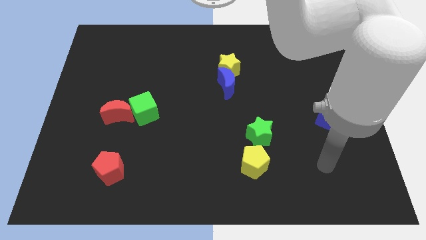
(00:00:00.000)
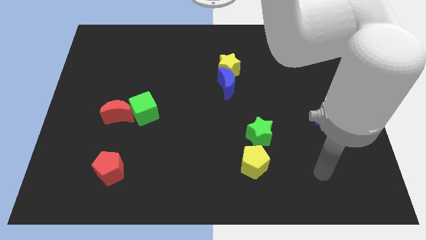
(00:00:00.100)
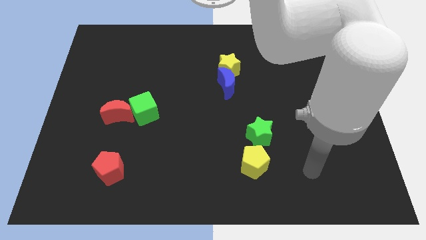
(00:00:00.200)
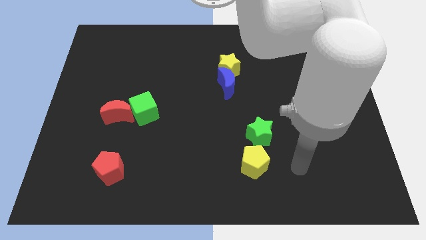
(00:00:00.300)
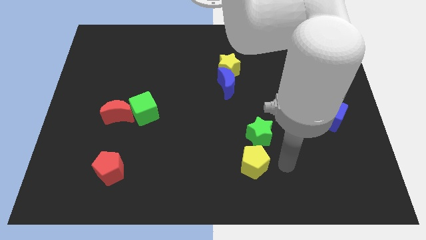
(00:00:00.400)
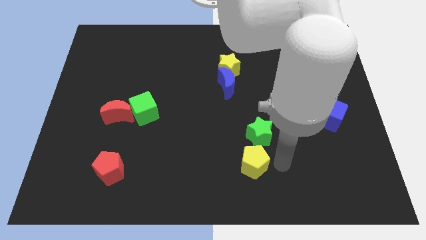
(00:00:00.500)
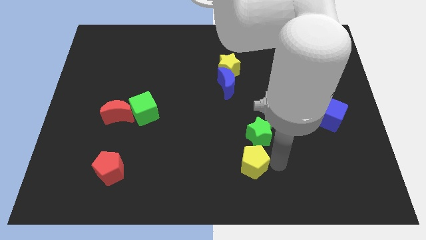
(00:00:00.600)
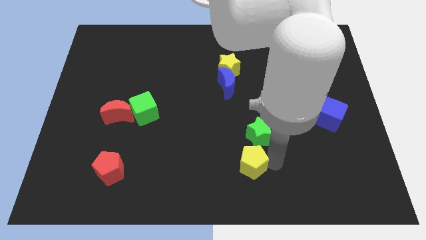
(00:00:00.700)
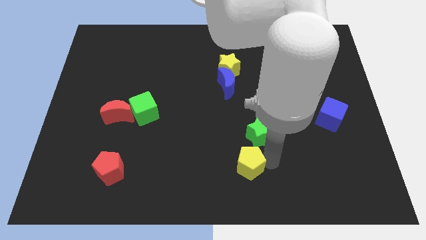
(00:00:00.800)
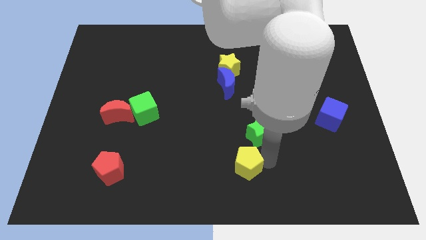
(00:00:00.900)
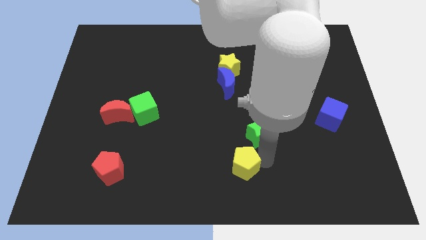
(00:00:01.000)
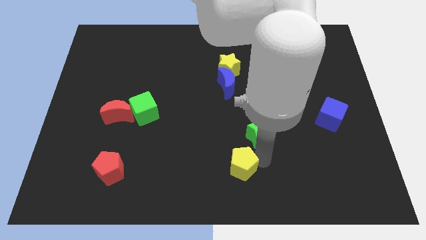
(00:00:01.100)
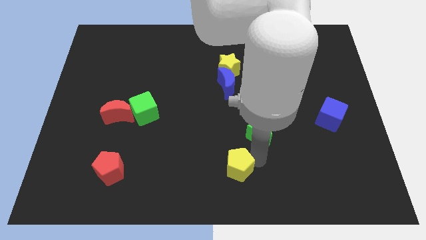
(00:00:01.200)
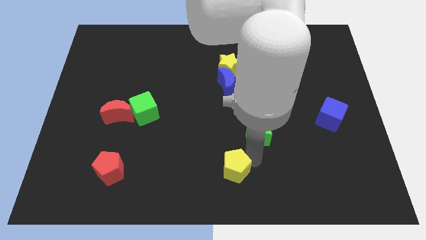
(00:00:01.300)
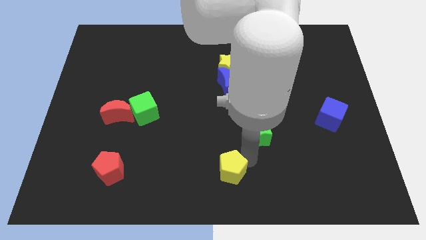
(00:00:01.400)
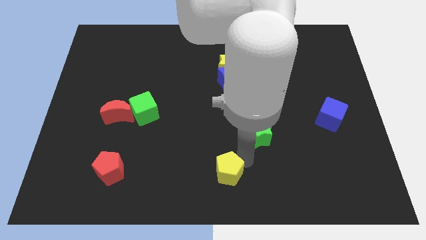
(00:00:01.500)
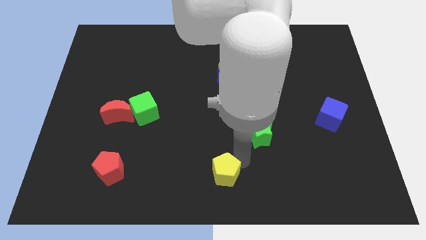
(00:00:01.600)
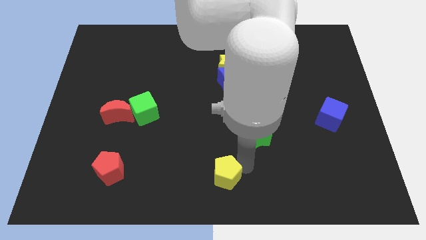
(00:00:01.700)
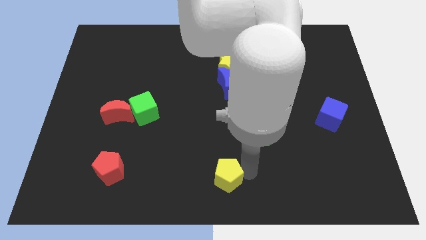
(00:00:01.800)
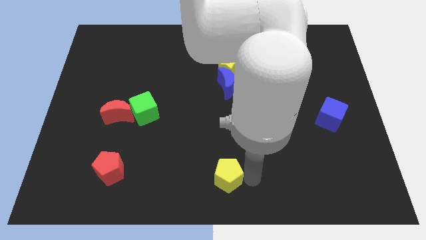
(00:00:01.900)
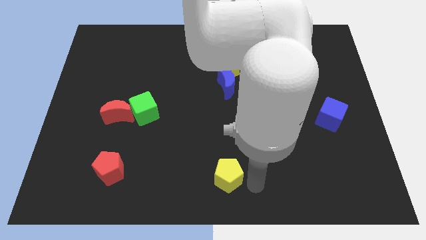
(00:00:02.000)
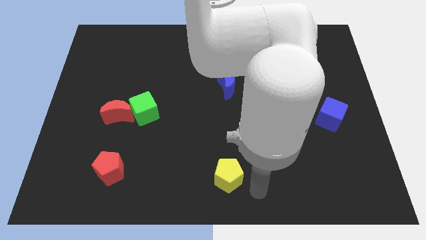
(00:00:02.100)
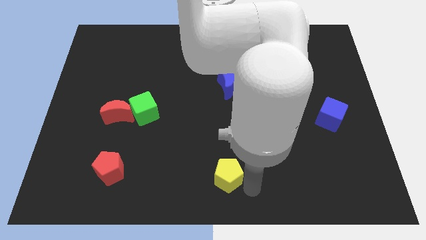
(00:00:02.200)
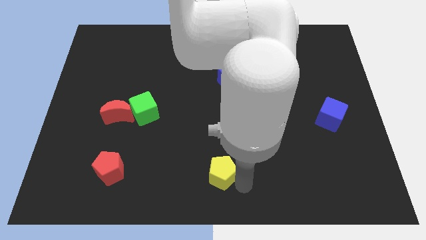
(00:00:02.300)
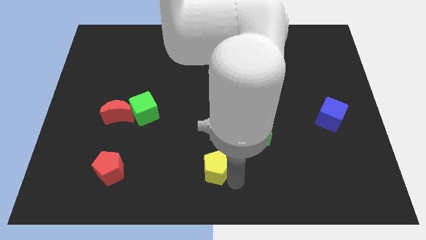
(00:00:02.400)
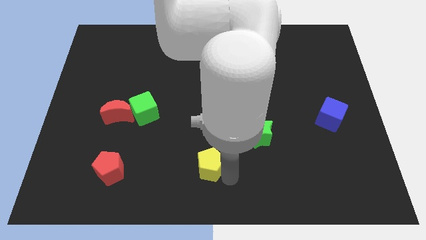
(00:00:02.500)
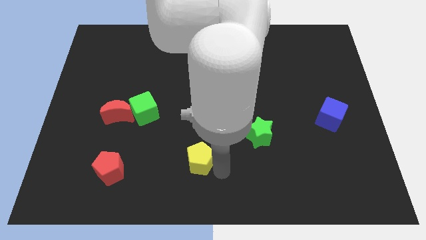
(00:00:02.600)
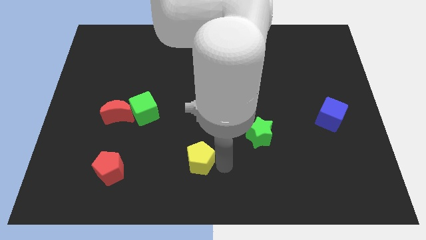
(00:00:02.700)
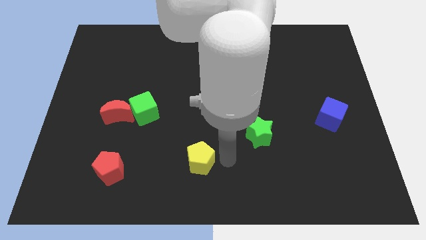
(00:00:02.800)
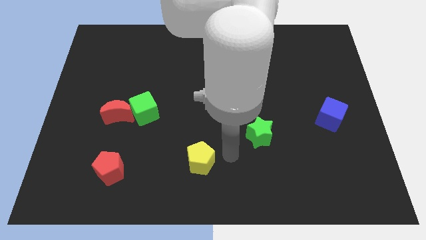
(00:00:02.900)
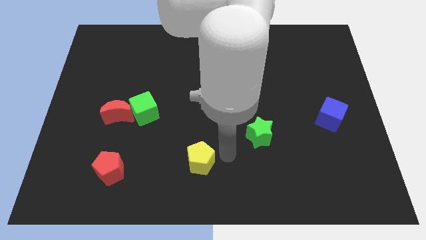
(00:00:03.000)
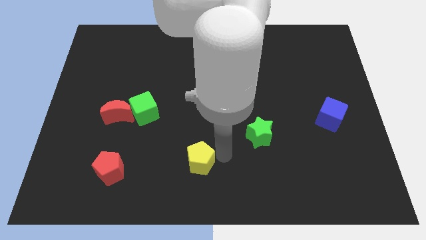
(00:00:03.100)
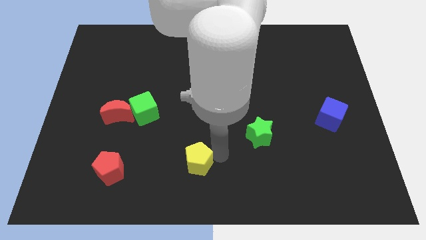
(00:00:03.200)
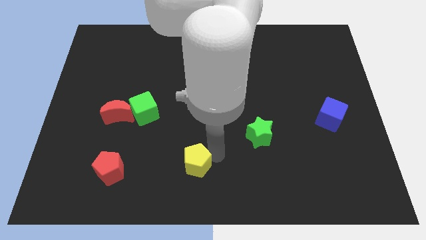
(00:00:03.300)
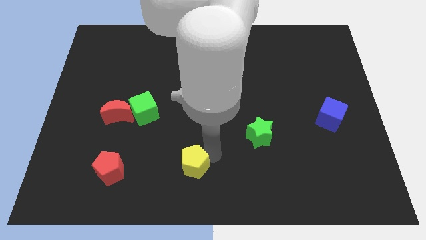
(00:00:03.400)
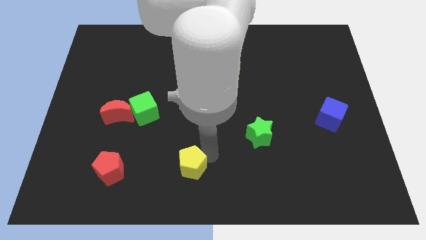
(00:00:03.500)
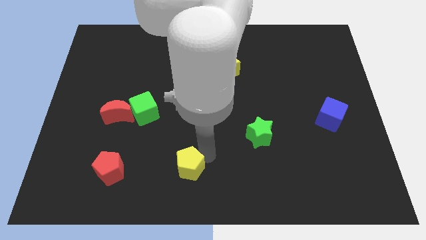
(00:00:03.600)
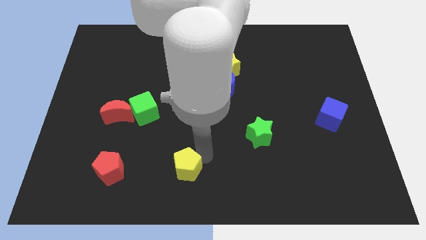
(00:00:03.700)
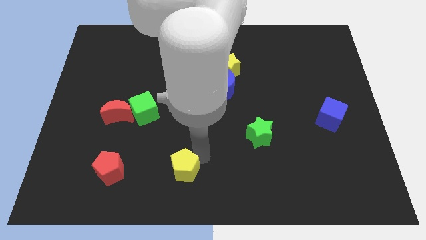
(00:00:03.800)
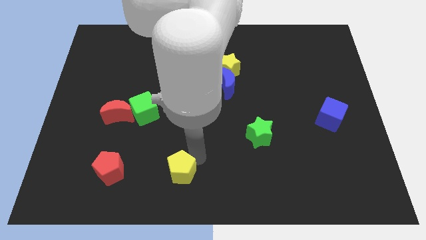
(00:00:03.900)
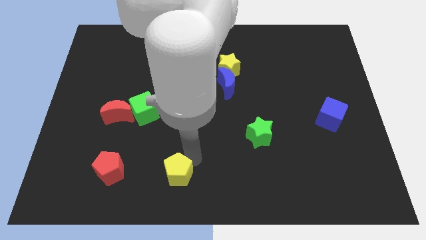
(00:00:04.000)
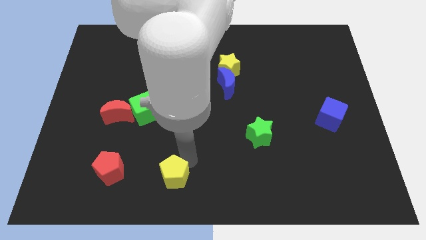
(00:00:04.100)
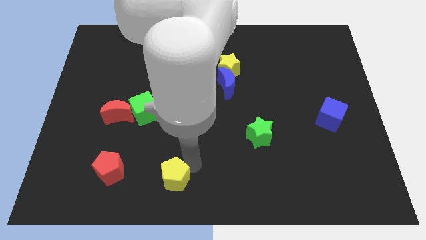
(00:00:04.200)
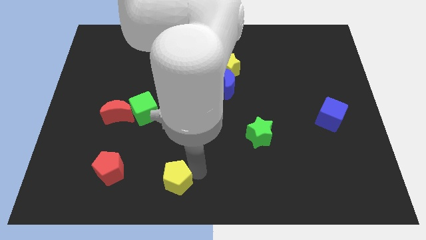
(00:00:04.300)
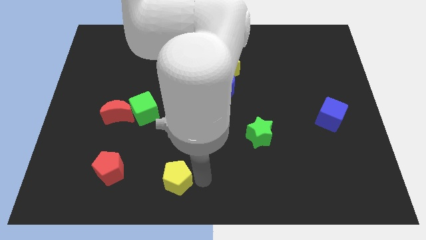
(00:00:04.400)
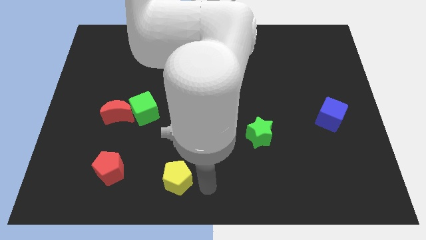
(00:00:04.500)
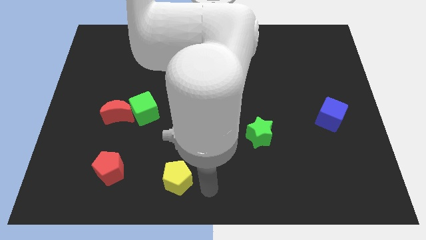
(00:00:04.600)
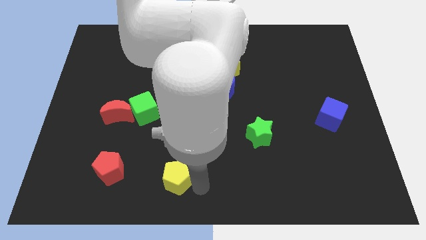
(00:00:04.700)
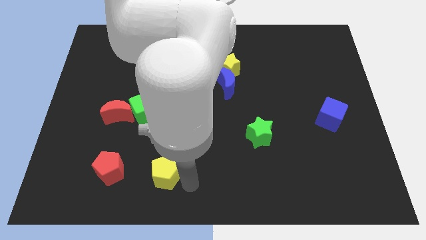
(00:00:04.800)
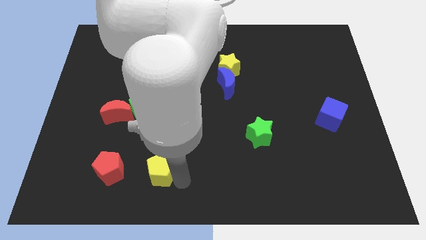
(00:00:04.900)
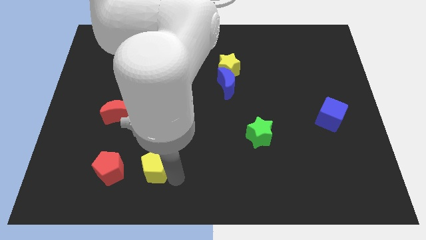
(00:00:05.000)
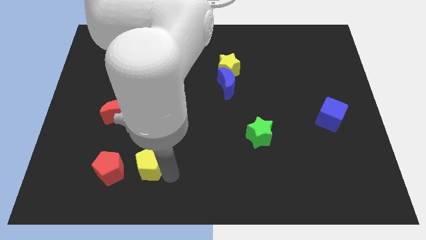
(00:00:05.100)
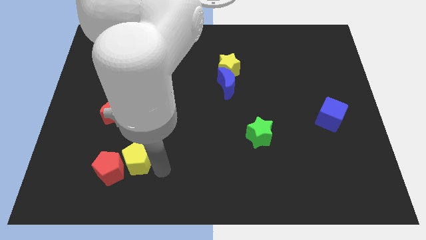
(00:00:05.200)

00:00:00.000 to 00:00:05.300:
slide the yellow pentagon towards the red pentagon
